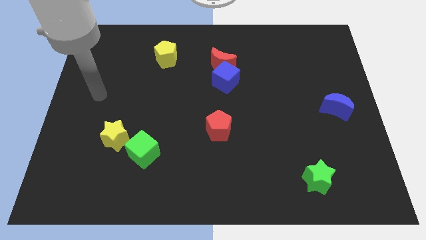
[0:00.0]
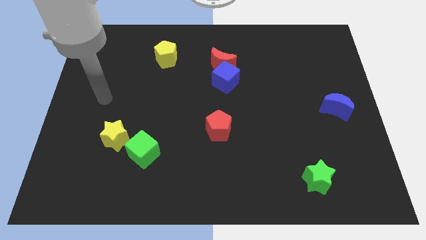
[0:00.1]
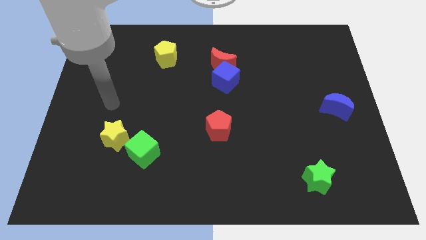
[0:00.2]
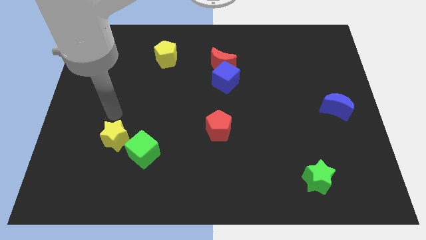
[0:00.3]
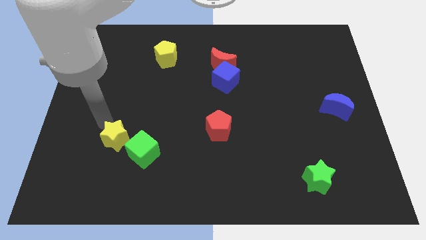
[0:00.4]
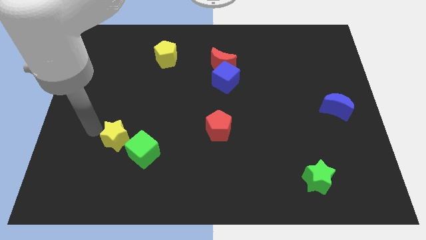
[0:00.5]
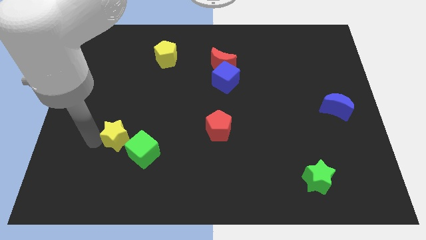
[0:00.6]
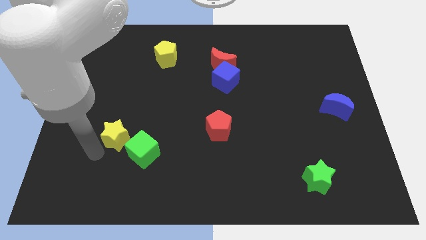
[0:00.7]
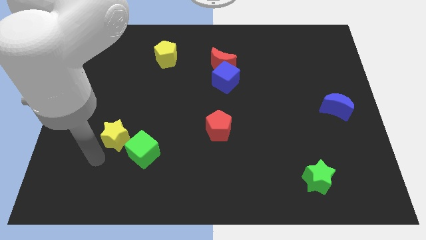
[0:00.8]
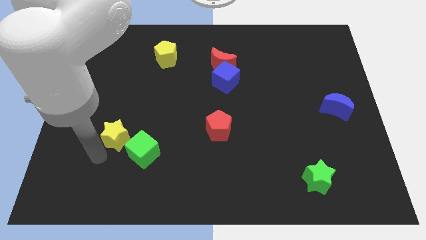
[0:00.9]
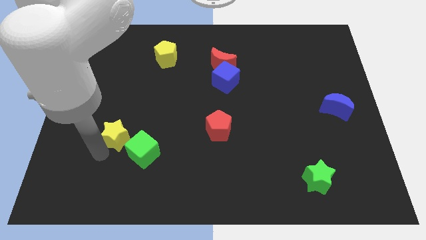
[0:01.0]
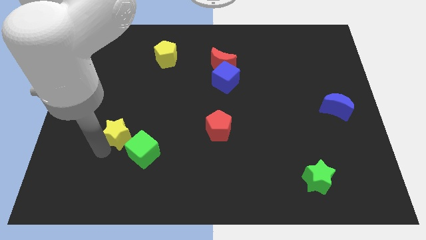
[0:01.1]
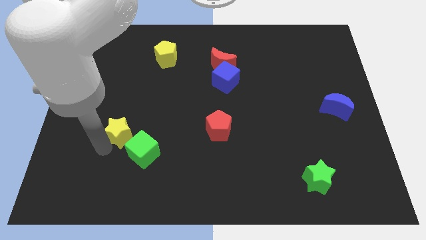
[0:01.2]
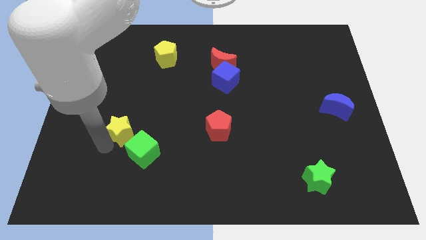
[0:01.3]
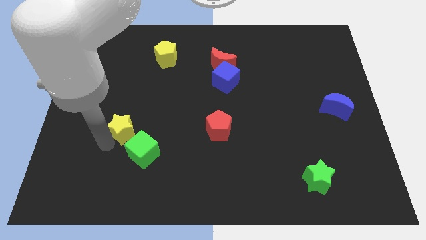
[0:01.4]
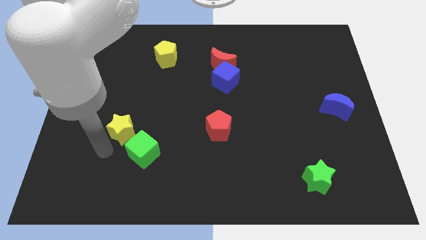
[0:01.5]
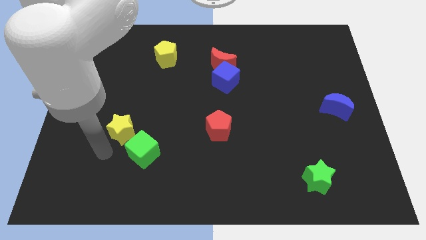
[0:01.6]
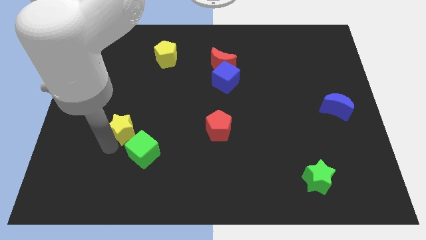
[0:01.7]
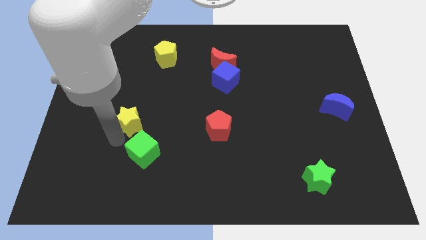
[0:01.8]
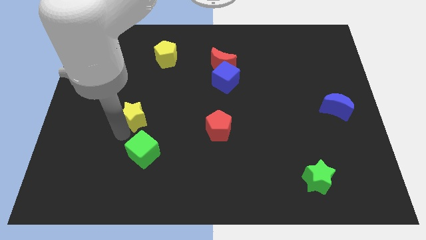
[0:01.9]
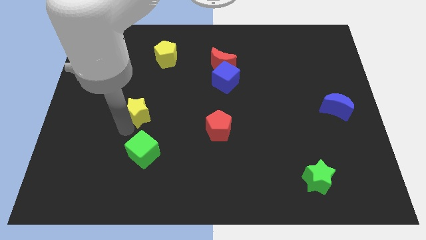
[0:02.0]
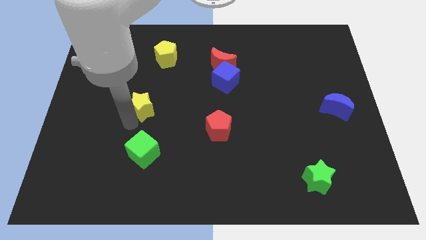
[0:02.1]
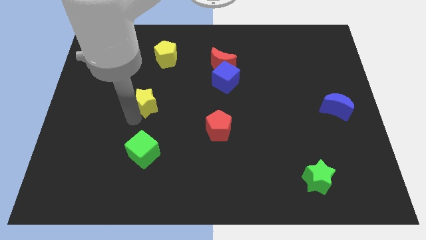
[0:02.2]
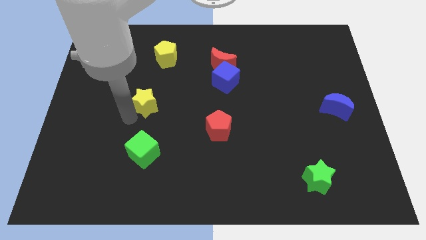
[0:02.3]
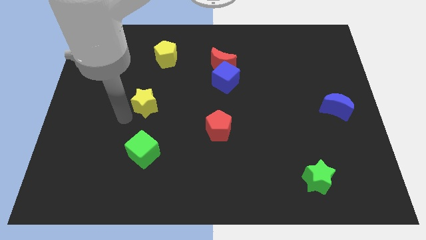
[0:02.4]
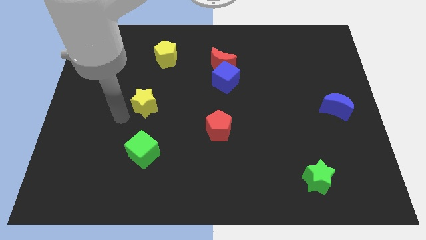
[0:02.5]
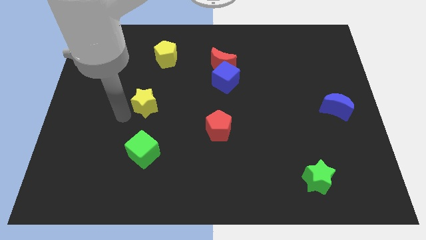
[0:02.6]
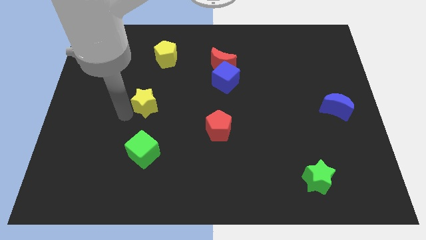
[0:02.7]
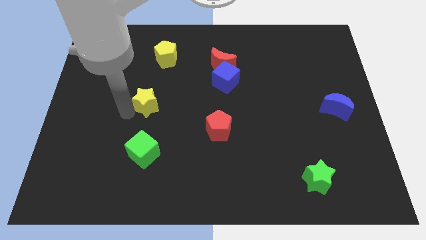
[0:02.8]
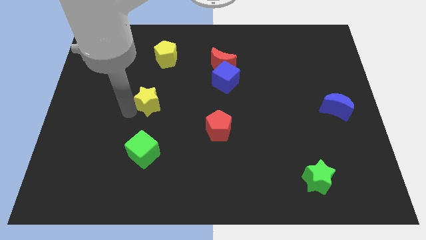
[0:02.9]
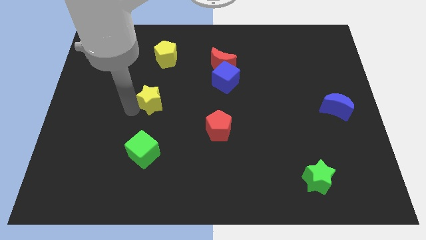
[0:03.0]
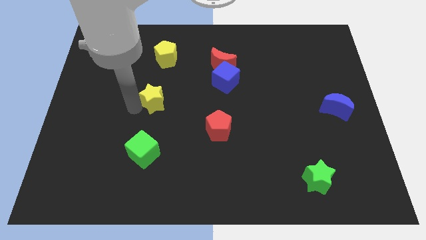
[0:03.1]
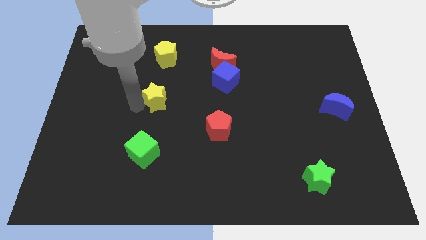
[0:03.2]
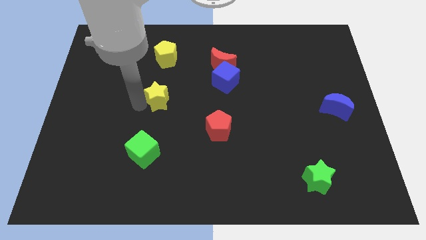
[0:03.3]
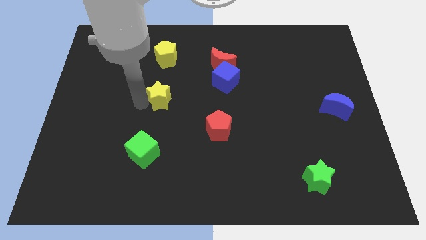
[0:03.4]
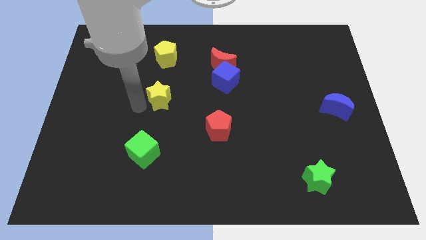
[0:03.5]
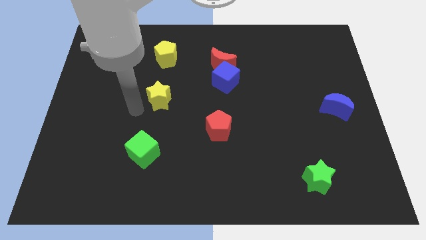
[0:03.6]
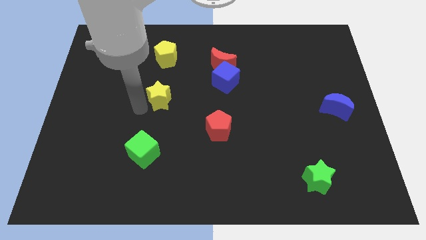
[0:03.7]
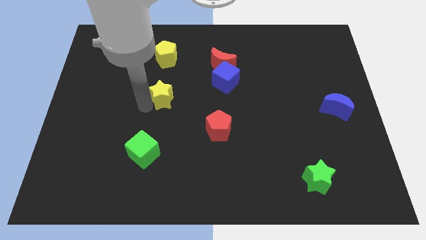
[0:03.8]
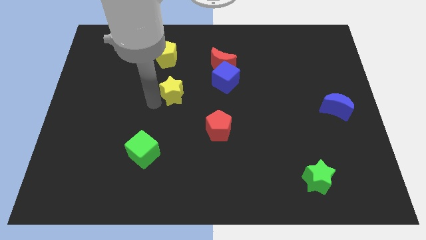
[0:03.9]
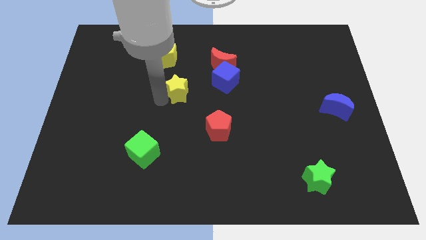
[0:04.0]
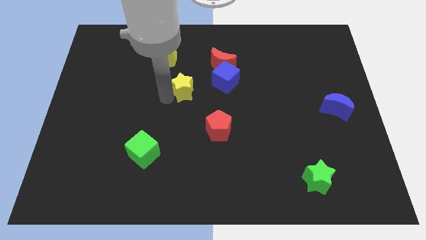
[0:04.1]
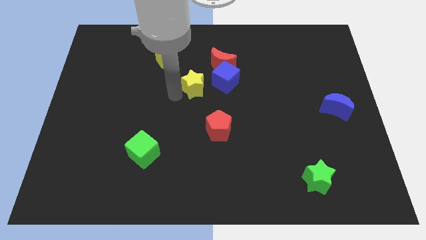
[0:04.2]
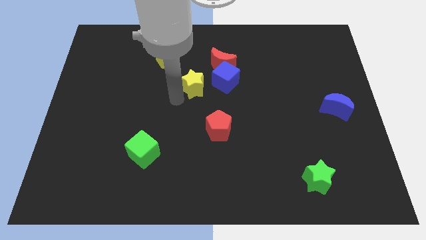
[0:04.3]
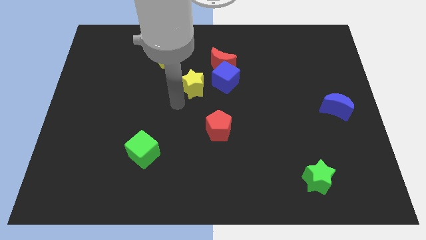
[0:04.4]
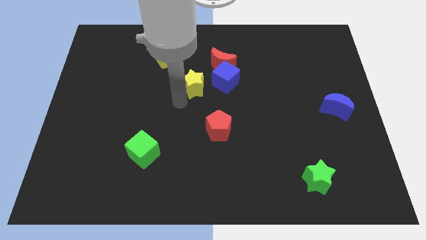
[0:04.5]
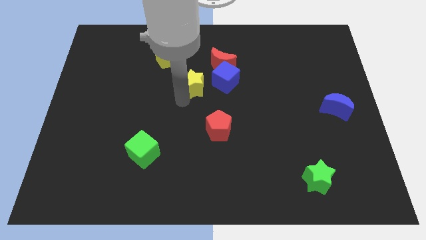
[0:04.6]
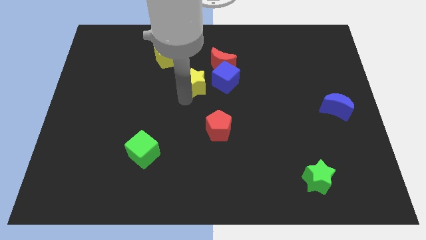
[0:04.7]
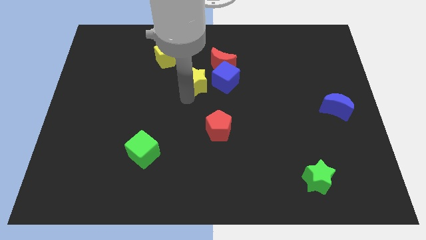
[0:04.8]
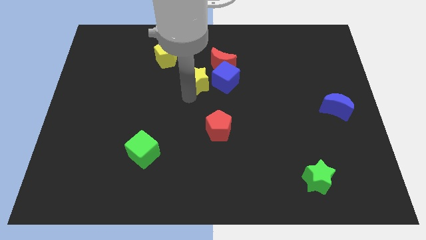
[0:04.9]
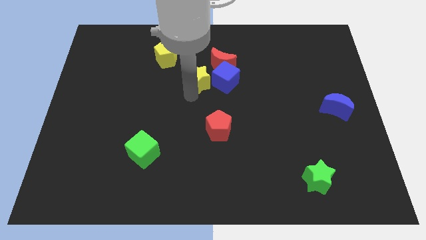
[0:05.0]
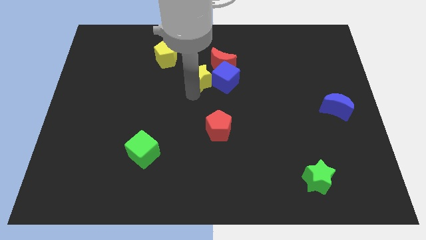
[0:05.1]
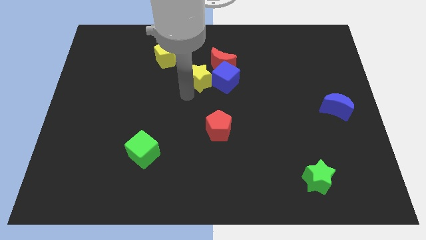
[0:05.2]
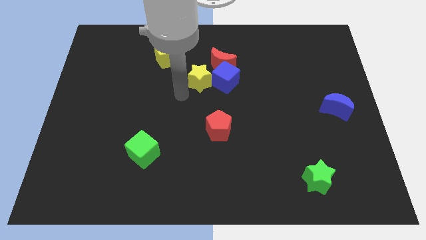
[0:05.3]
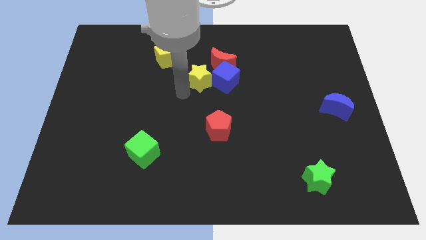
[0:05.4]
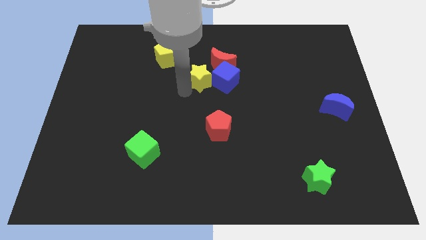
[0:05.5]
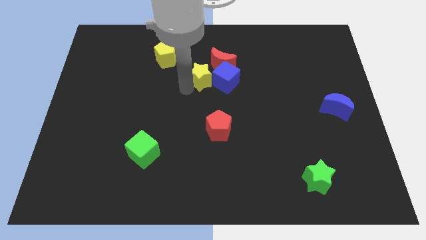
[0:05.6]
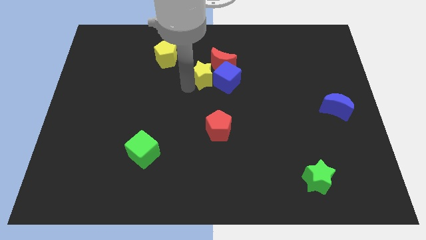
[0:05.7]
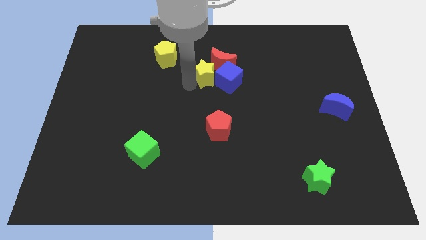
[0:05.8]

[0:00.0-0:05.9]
slide the yellow star close to the red moon

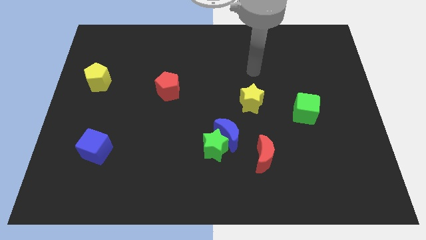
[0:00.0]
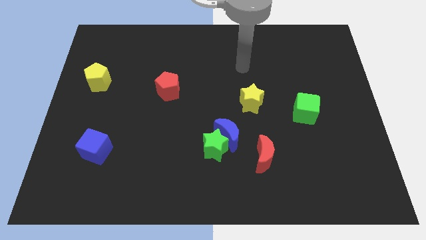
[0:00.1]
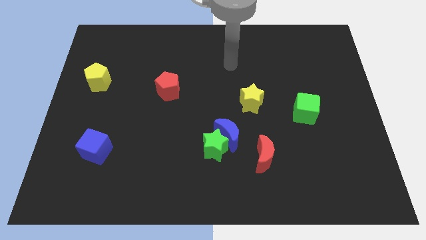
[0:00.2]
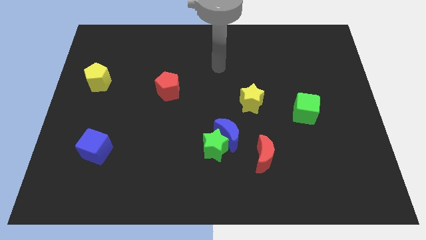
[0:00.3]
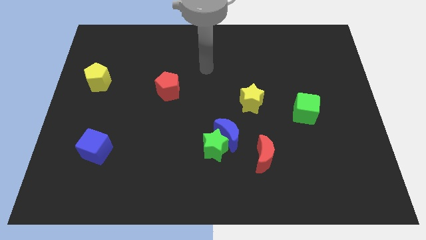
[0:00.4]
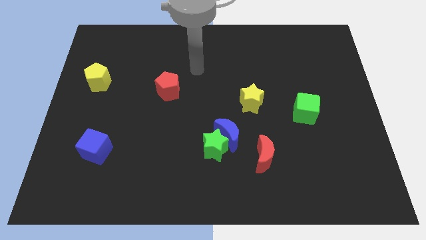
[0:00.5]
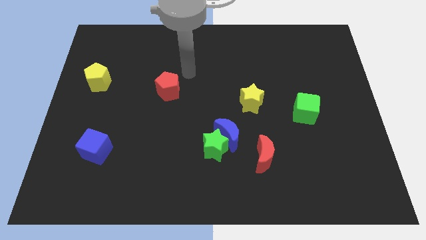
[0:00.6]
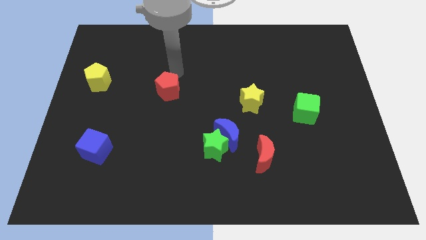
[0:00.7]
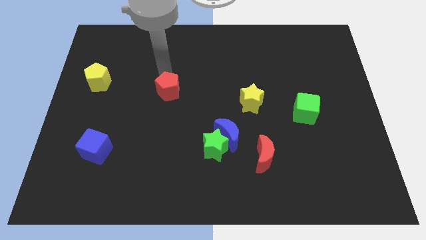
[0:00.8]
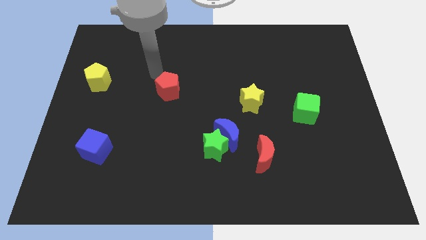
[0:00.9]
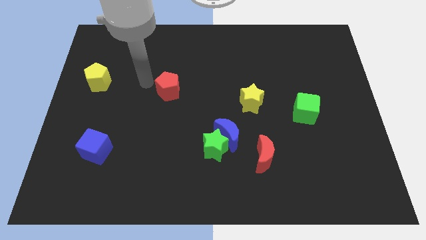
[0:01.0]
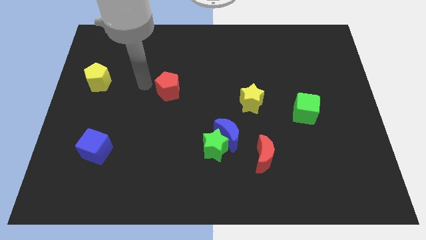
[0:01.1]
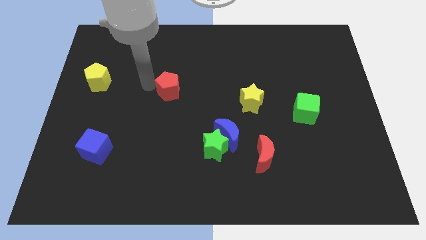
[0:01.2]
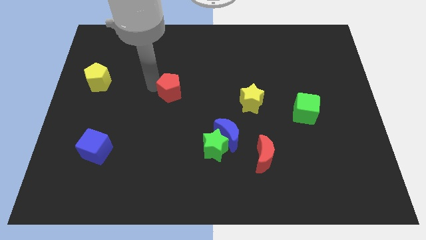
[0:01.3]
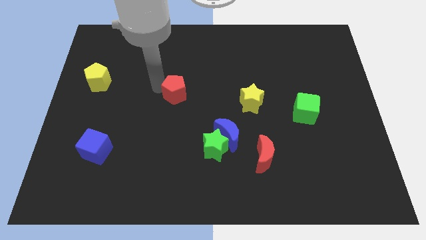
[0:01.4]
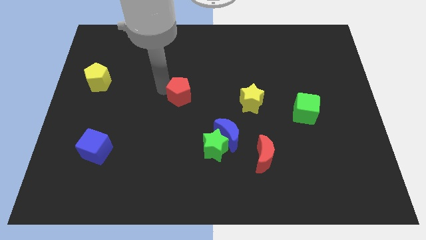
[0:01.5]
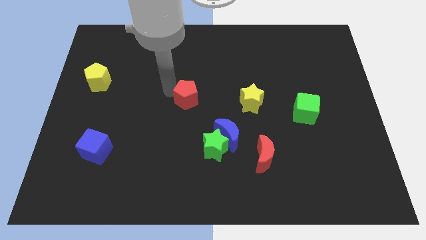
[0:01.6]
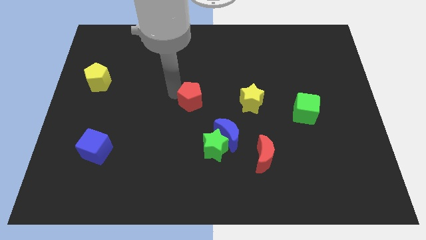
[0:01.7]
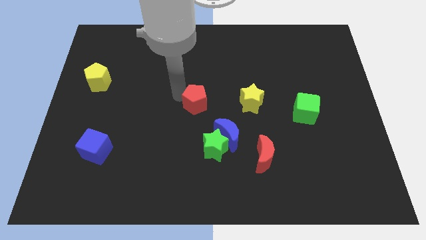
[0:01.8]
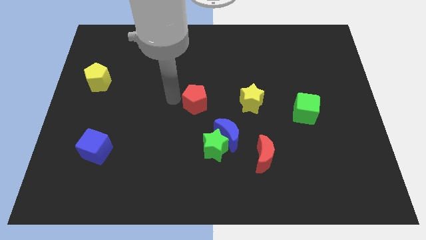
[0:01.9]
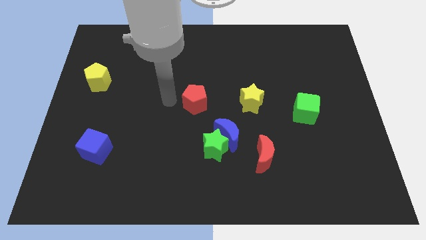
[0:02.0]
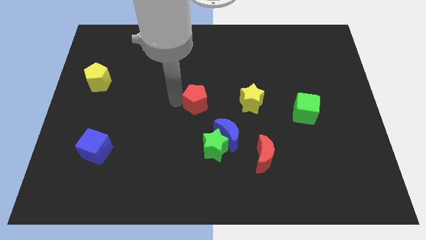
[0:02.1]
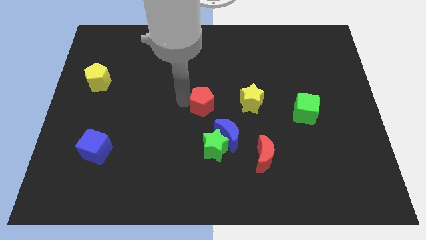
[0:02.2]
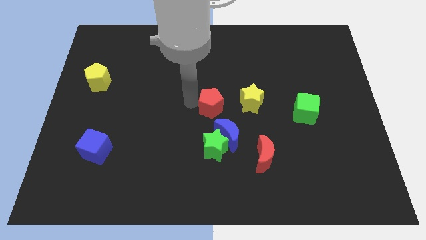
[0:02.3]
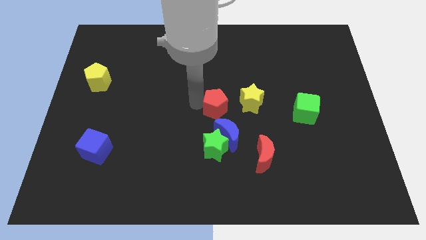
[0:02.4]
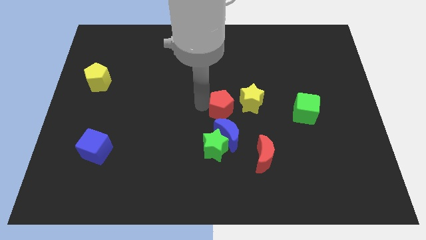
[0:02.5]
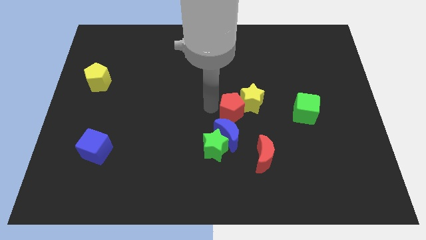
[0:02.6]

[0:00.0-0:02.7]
put the red pentagon next to the yellow star
